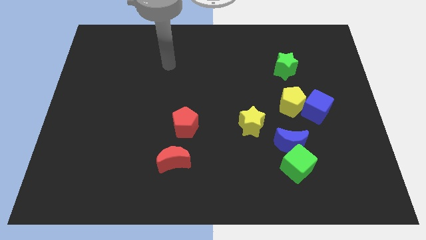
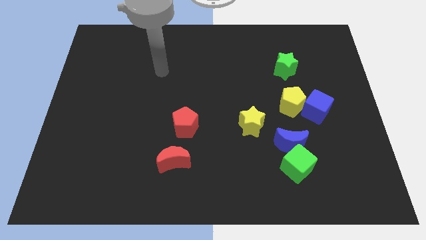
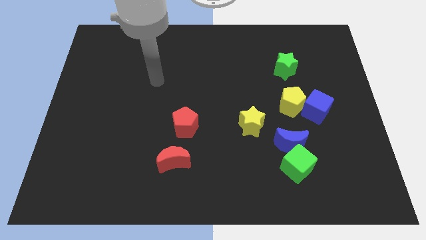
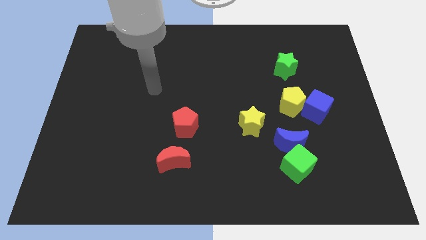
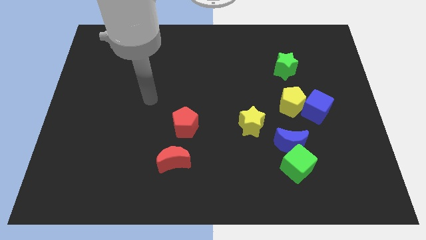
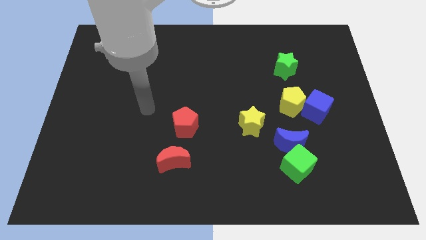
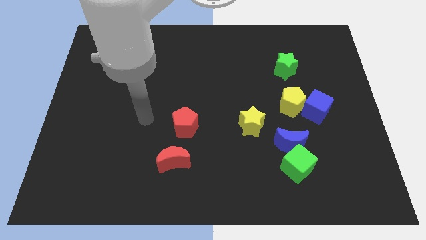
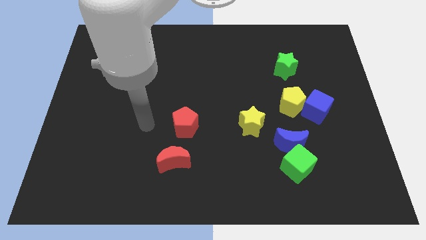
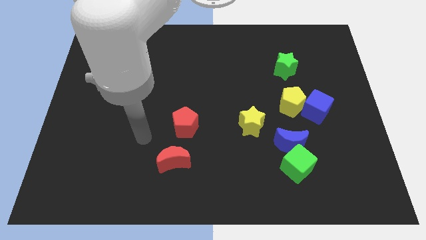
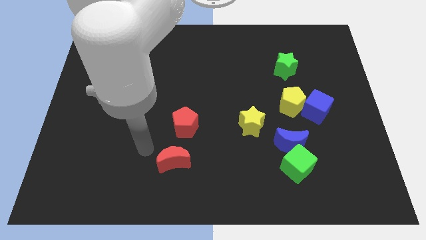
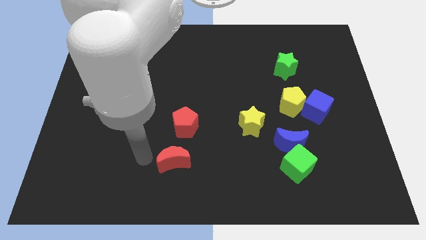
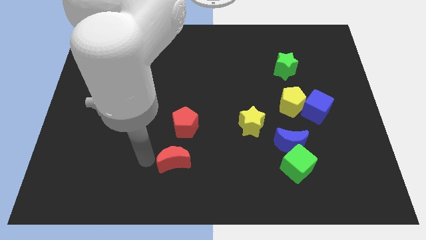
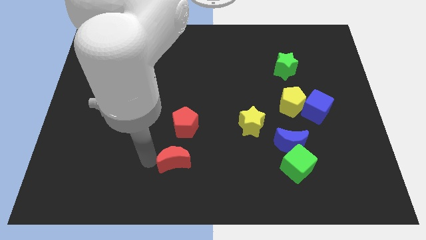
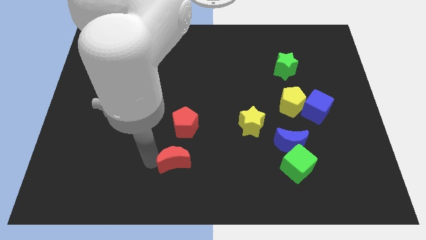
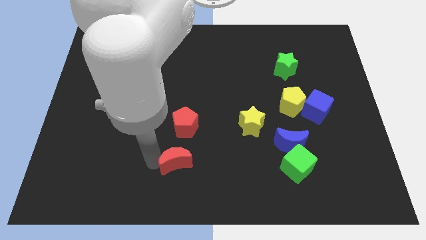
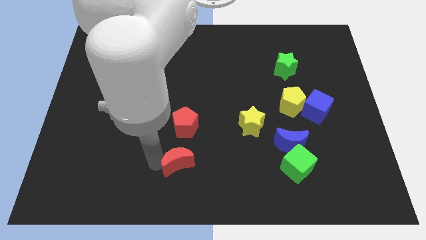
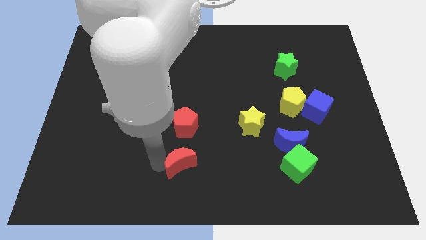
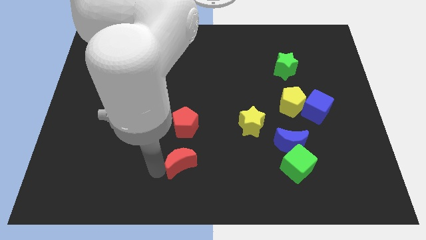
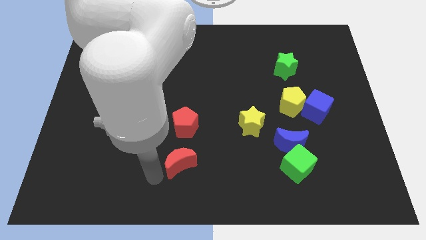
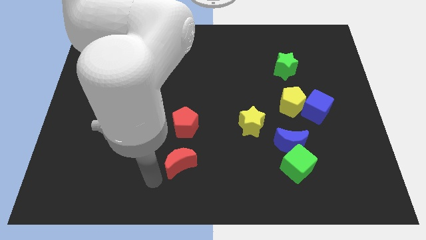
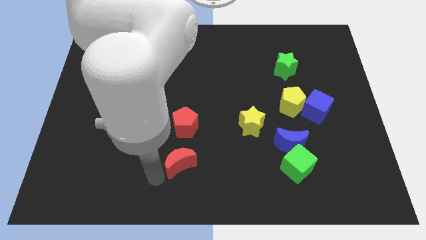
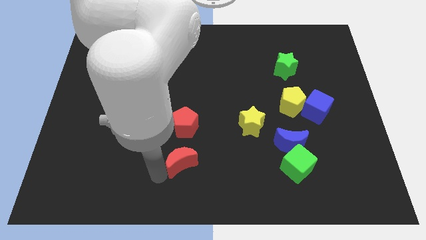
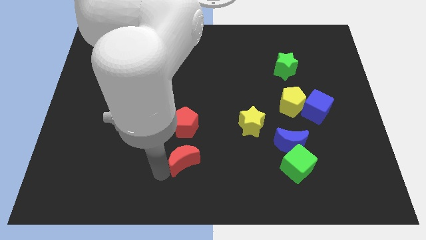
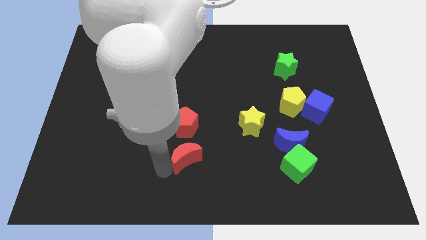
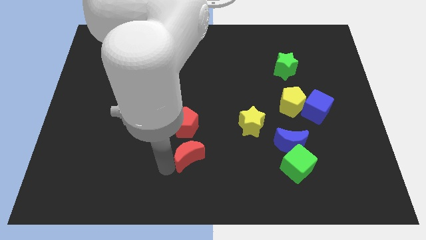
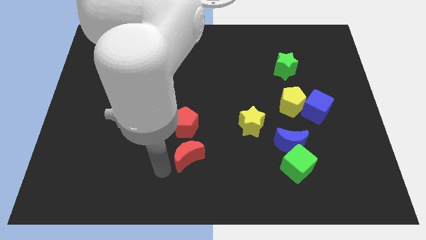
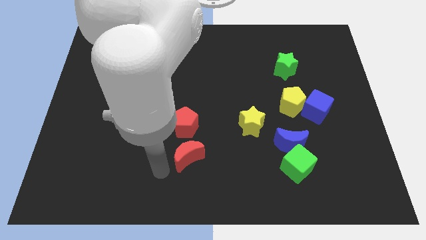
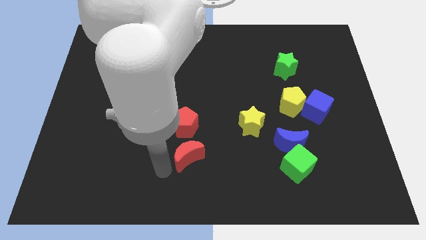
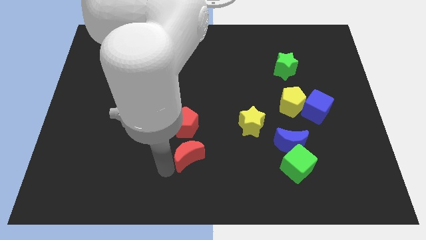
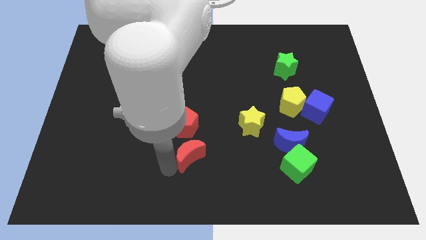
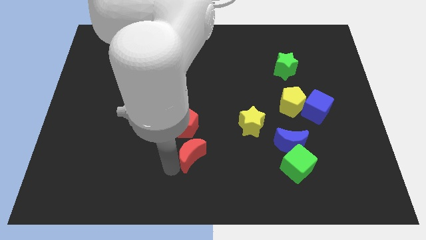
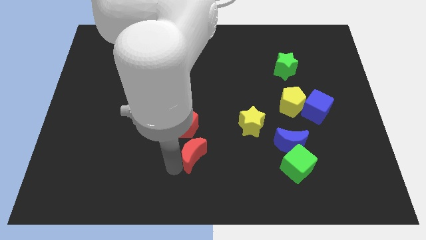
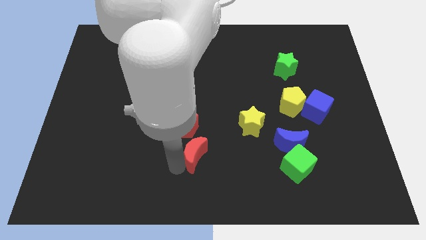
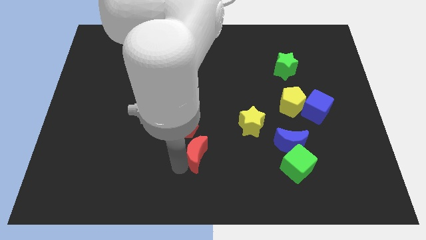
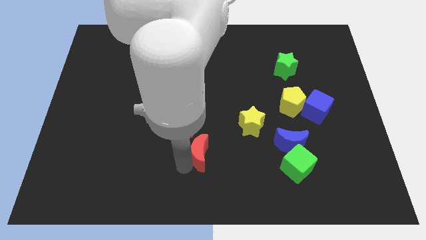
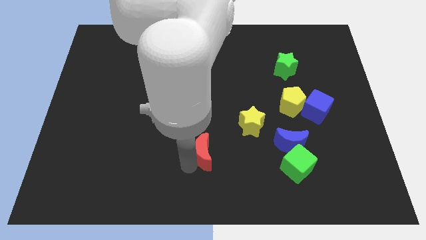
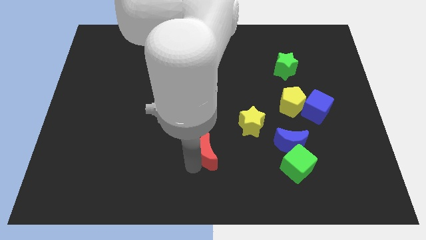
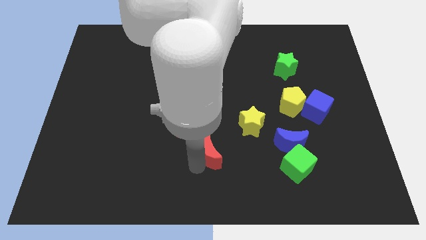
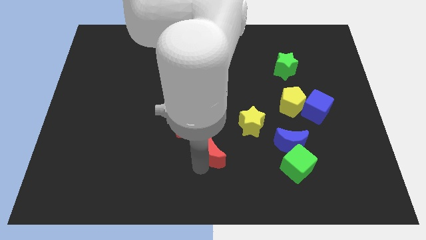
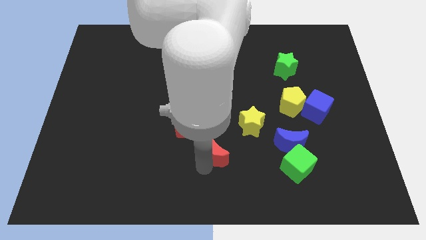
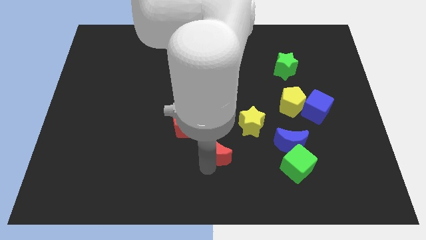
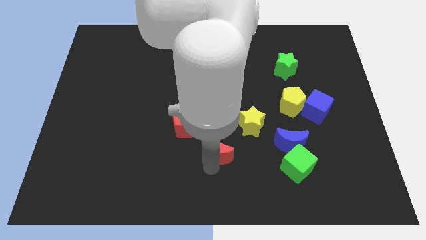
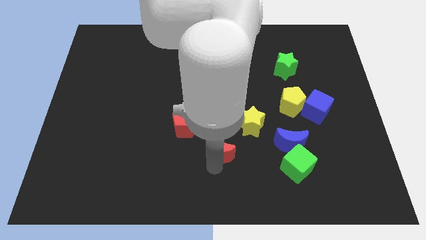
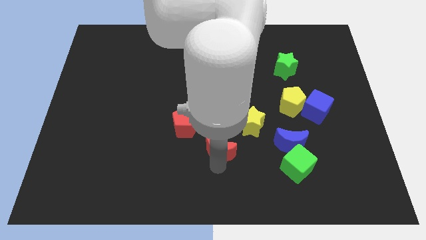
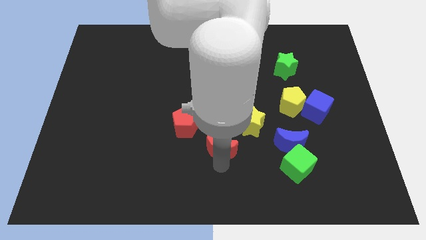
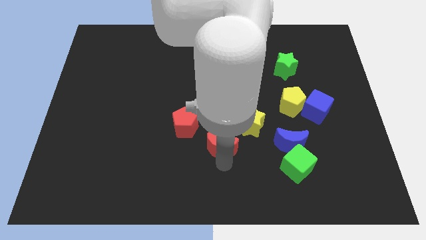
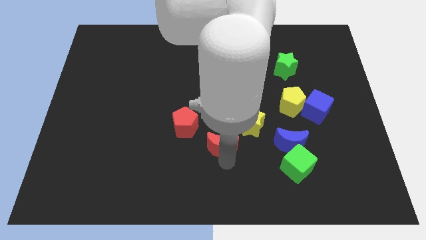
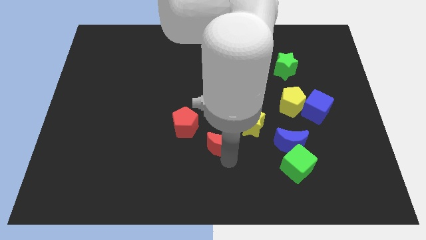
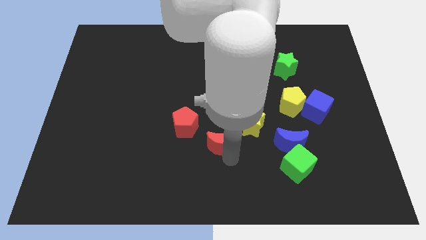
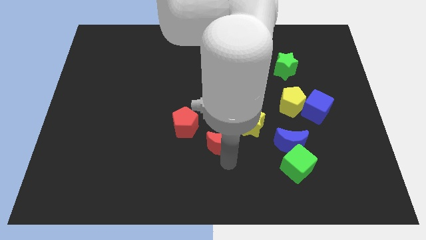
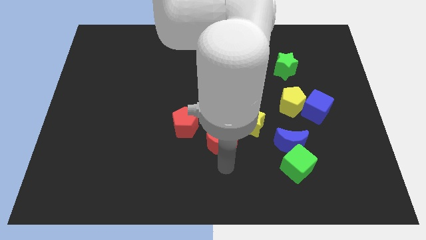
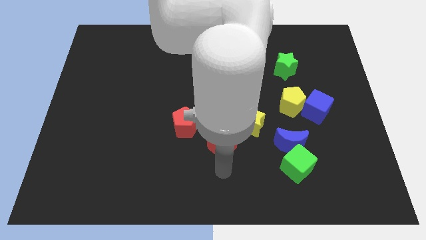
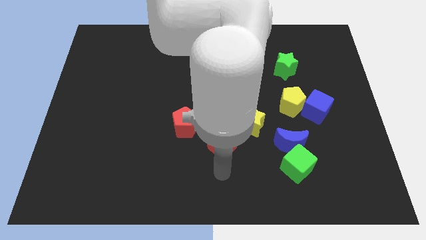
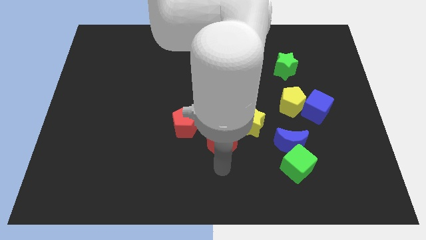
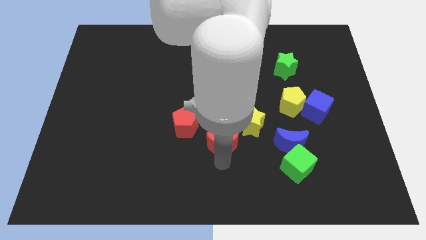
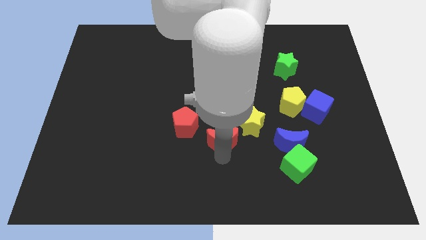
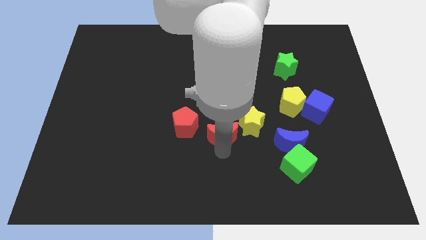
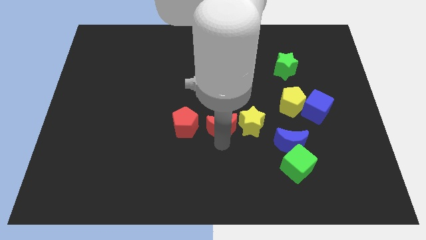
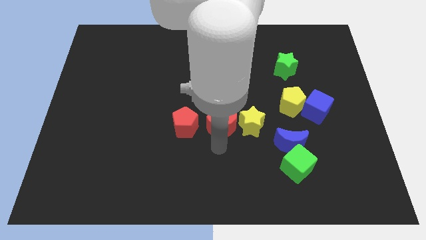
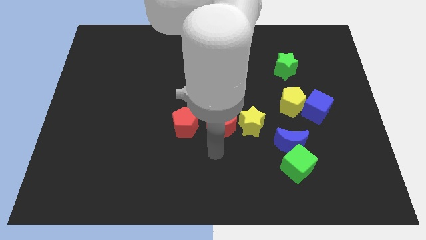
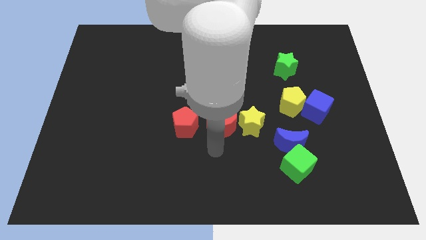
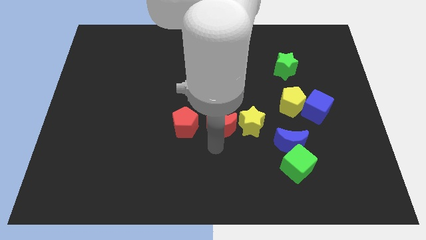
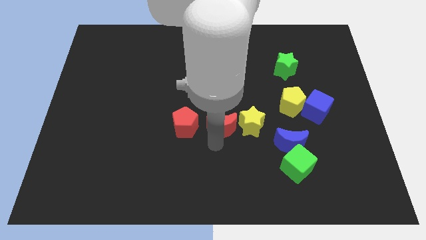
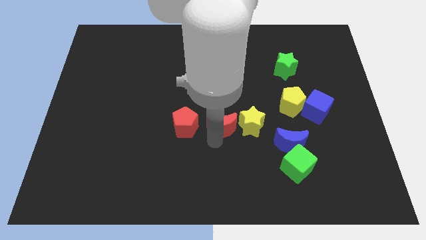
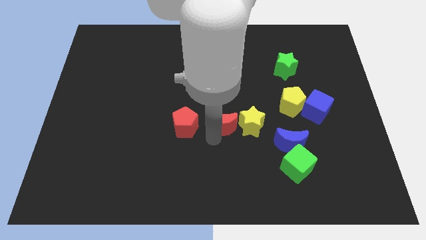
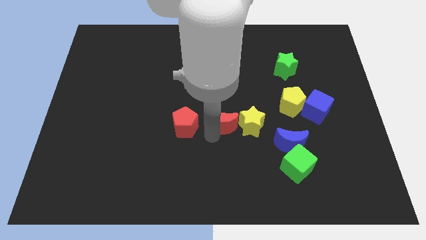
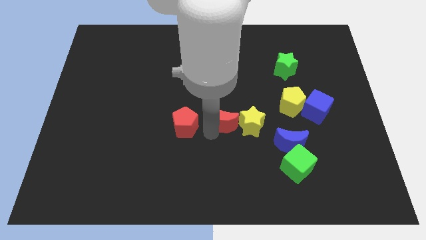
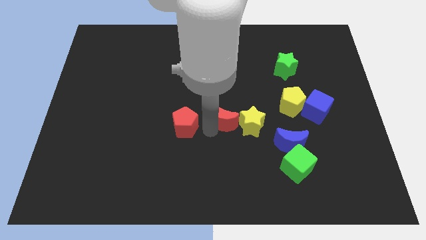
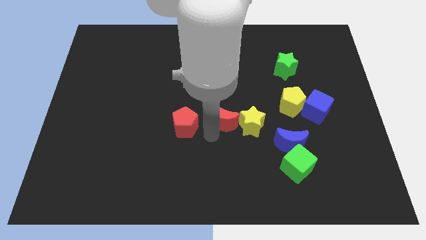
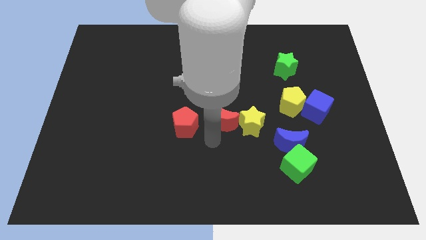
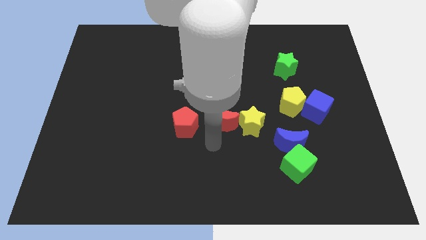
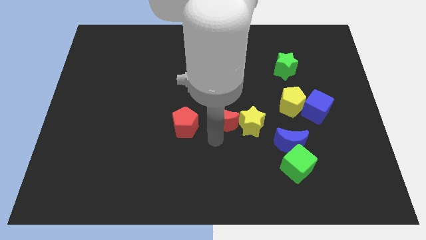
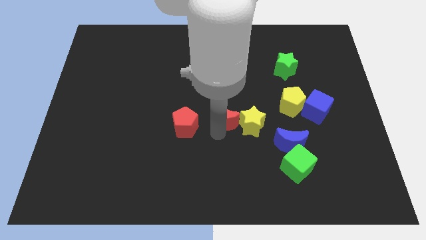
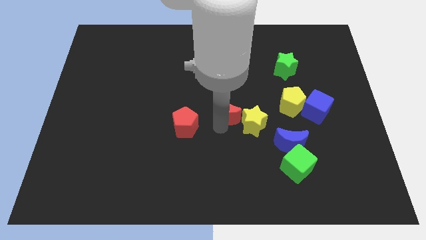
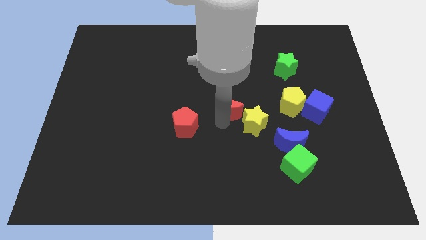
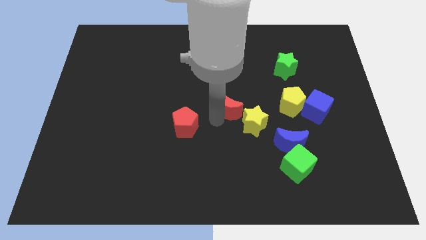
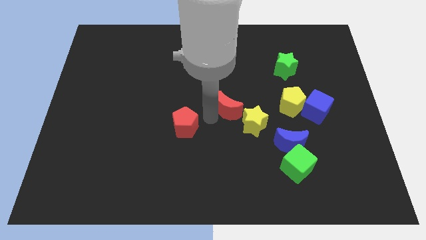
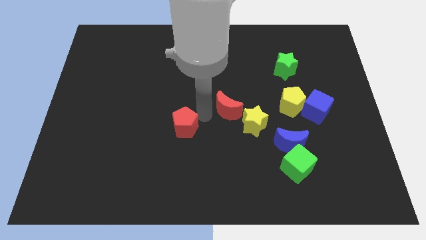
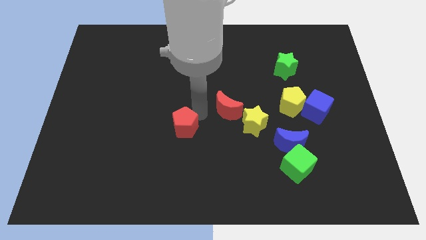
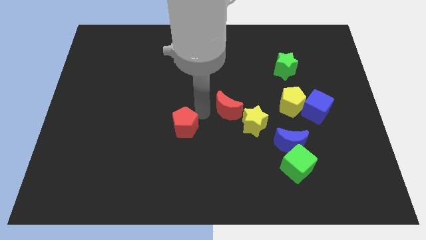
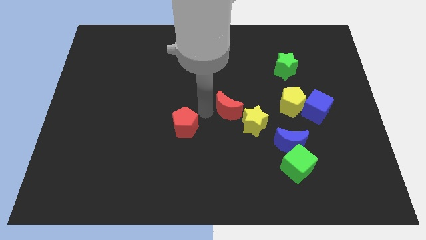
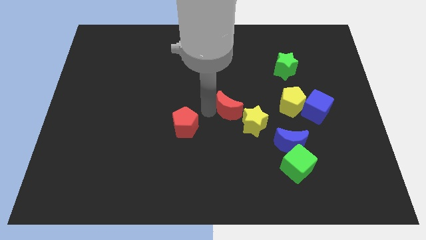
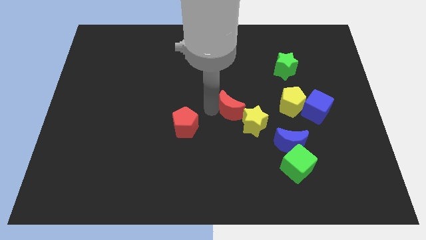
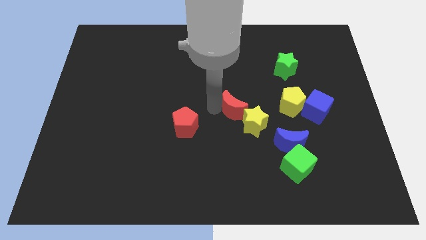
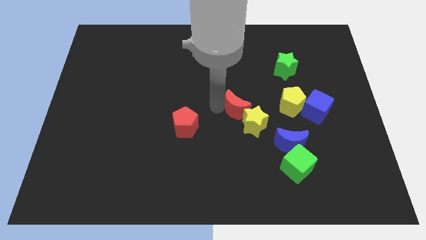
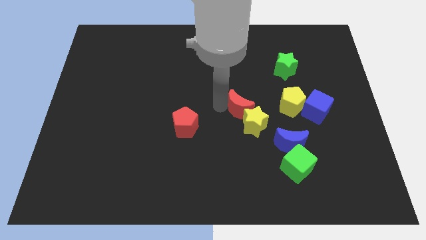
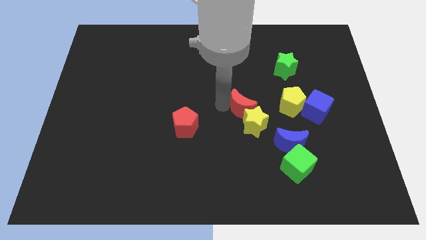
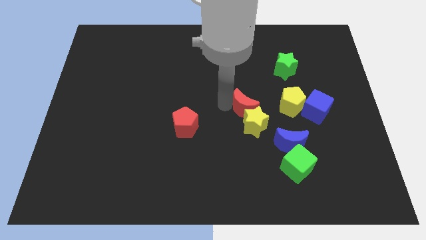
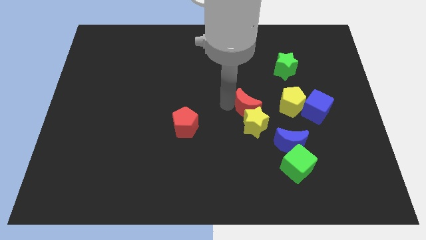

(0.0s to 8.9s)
put the red moon diagonally up and to the right of the yellow star
